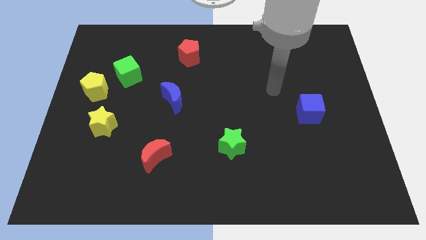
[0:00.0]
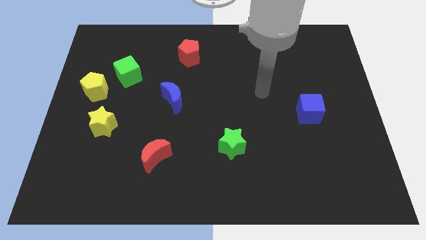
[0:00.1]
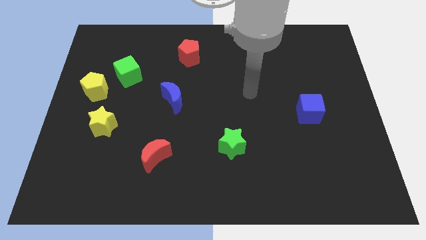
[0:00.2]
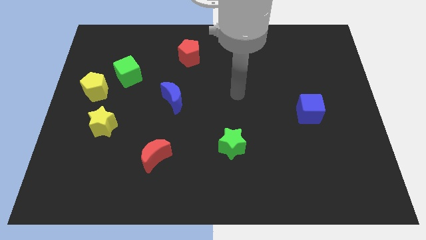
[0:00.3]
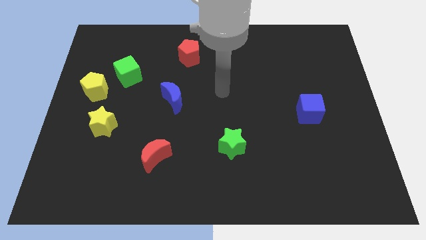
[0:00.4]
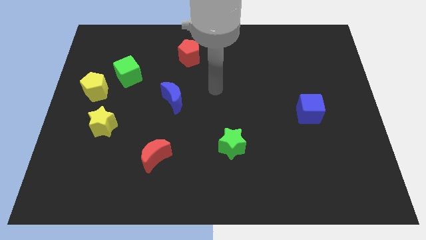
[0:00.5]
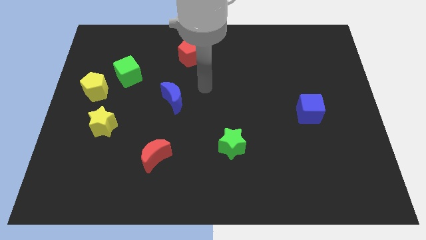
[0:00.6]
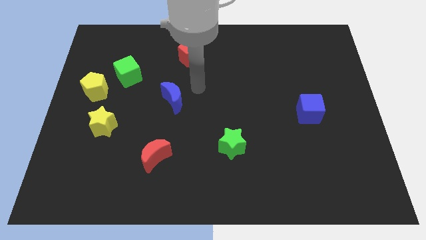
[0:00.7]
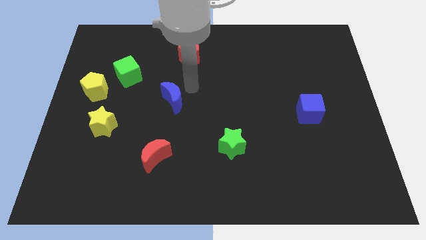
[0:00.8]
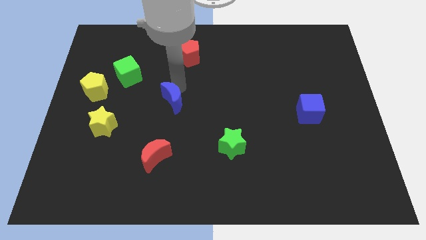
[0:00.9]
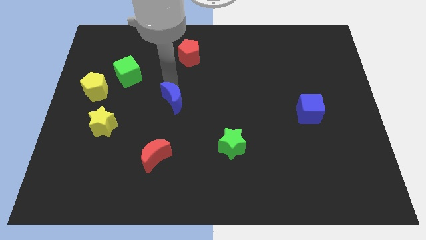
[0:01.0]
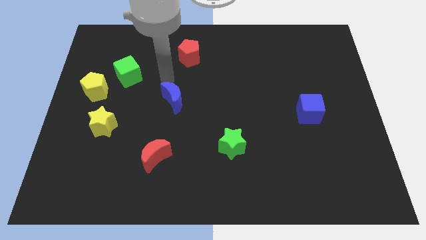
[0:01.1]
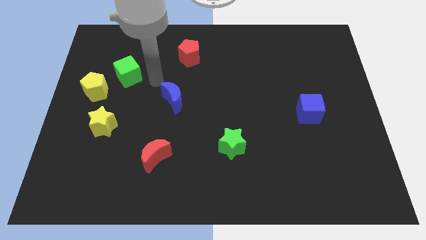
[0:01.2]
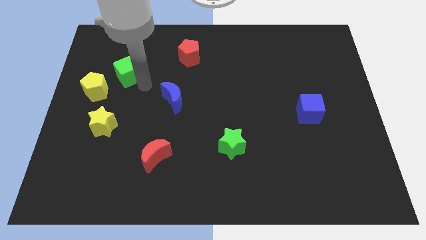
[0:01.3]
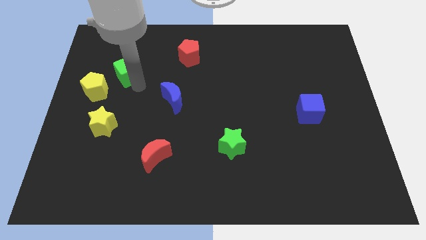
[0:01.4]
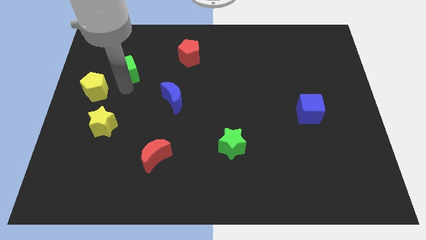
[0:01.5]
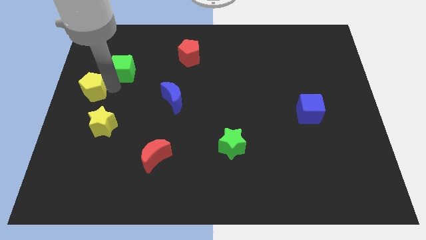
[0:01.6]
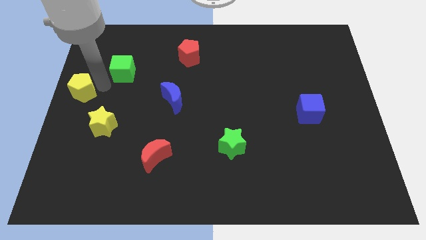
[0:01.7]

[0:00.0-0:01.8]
separate the green cube from the yellow pentagon

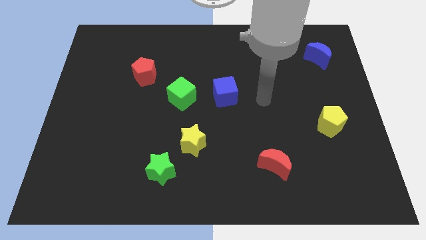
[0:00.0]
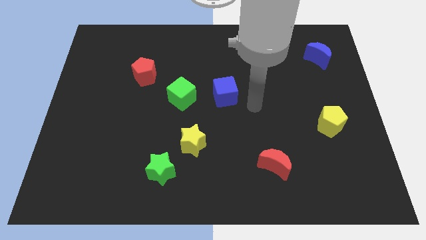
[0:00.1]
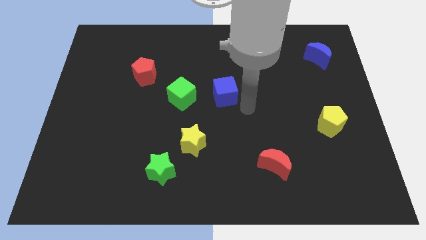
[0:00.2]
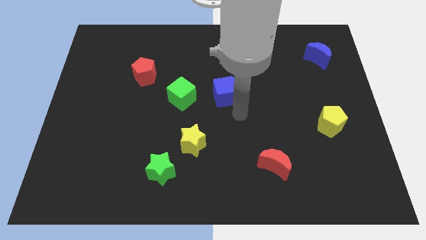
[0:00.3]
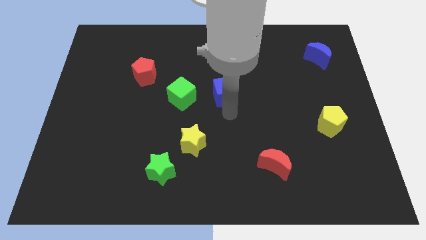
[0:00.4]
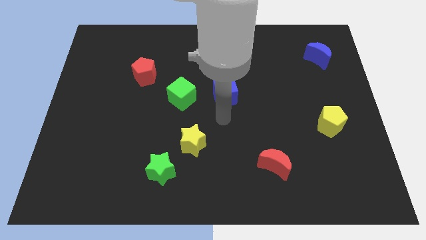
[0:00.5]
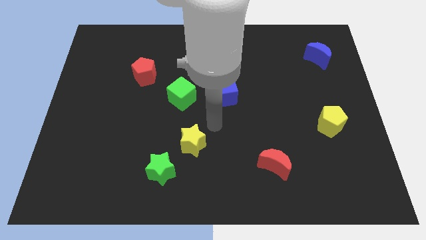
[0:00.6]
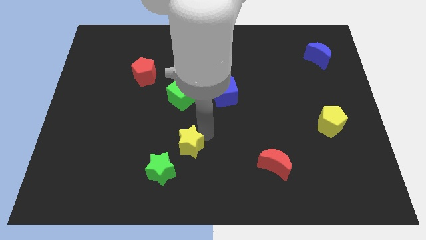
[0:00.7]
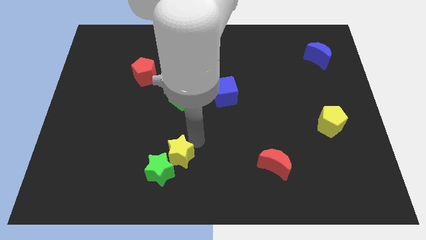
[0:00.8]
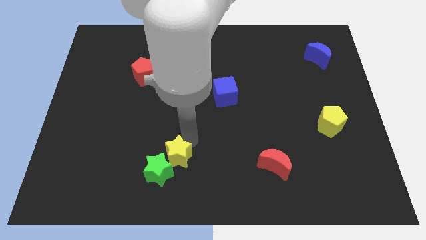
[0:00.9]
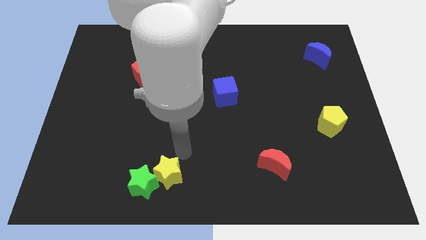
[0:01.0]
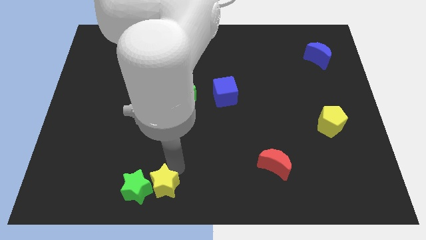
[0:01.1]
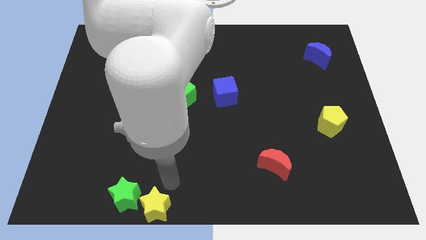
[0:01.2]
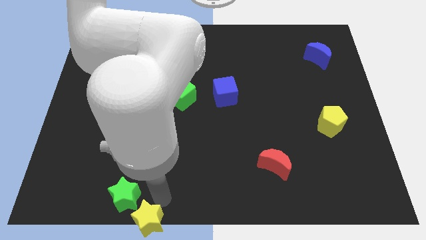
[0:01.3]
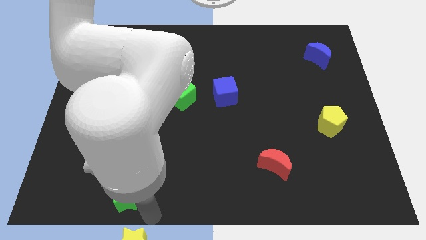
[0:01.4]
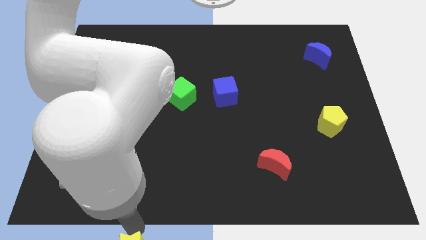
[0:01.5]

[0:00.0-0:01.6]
pull the green star apart from the yellow star

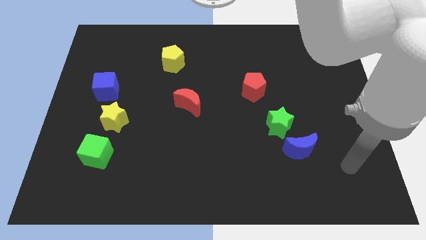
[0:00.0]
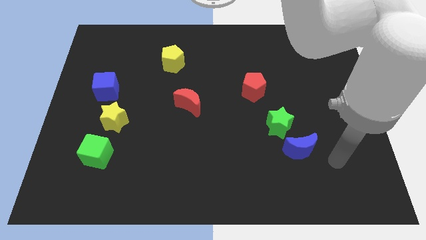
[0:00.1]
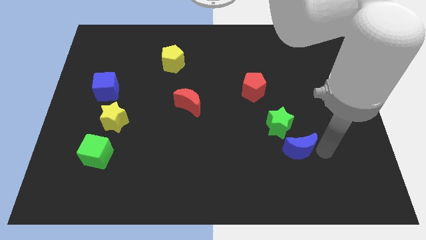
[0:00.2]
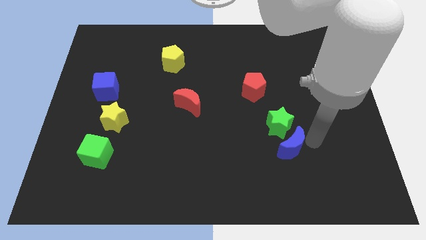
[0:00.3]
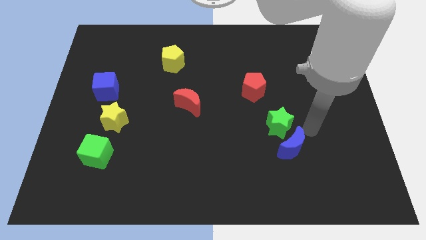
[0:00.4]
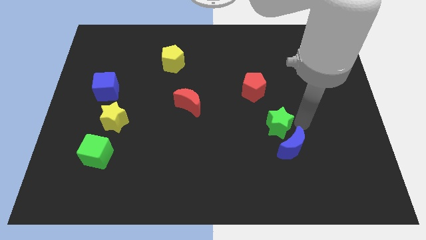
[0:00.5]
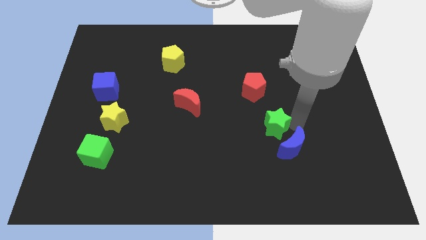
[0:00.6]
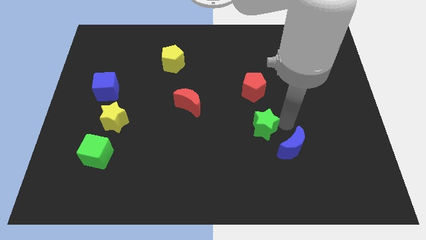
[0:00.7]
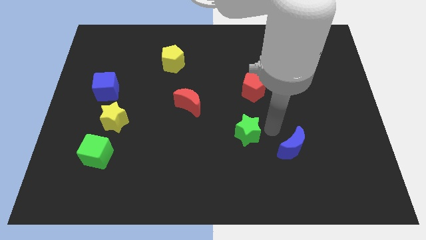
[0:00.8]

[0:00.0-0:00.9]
move the blue moon away from the green star

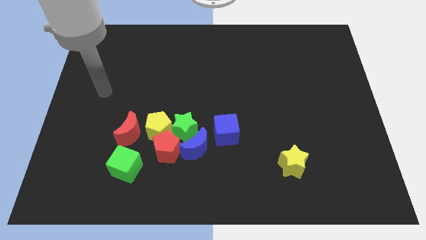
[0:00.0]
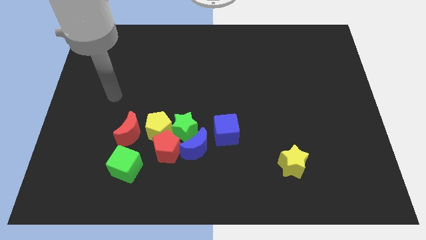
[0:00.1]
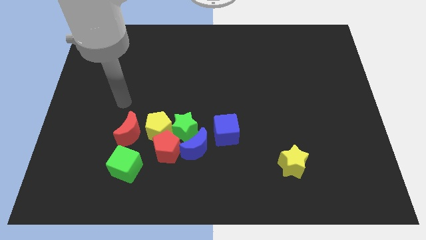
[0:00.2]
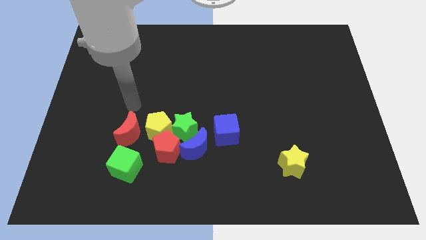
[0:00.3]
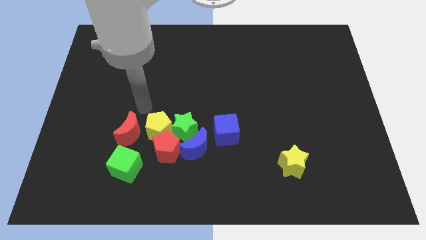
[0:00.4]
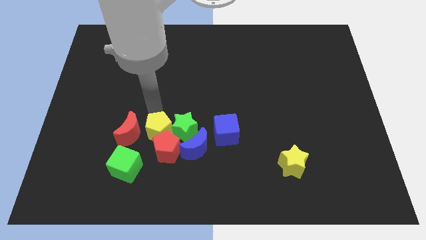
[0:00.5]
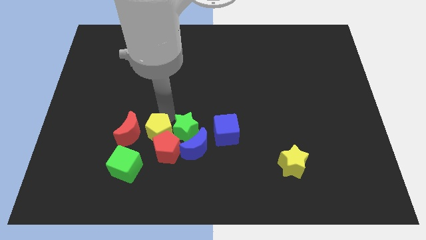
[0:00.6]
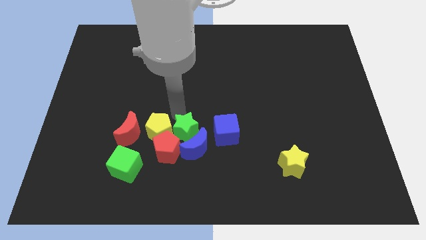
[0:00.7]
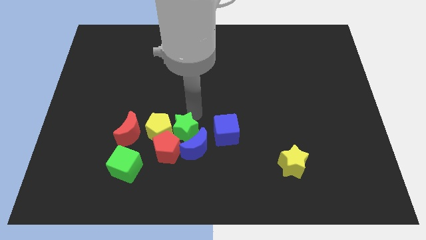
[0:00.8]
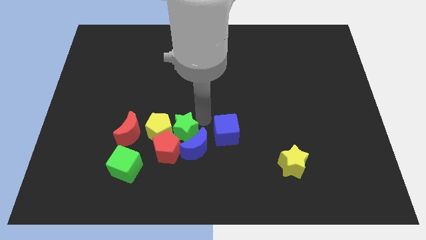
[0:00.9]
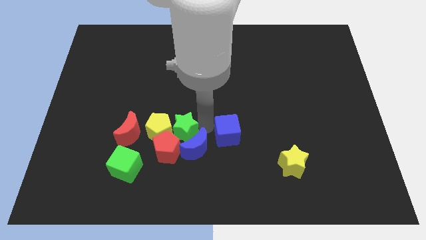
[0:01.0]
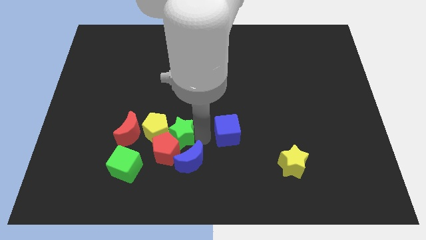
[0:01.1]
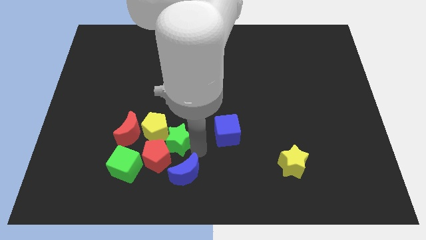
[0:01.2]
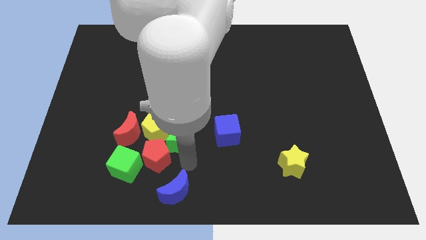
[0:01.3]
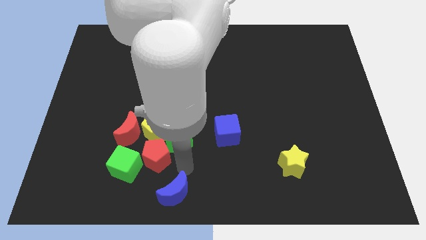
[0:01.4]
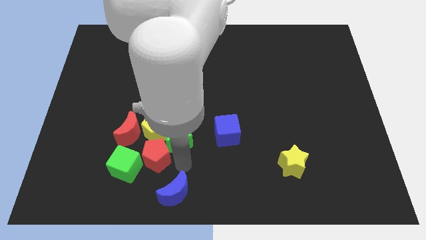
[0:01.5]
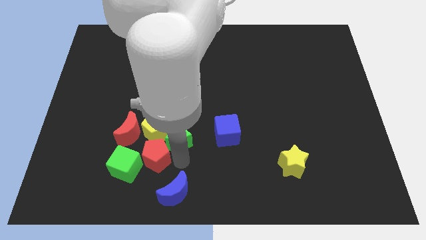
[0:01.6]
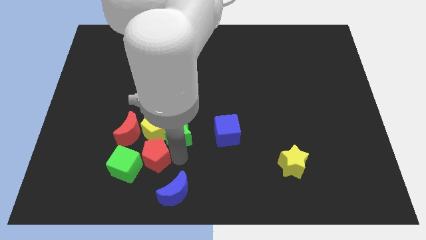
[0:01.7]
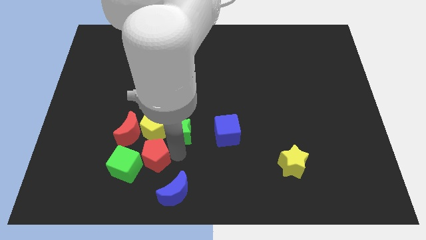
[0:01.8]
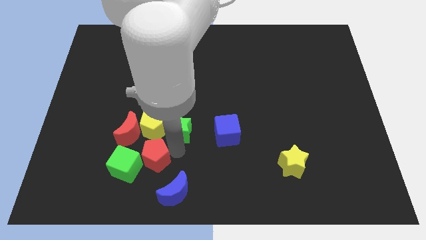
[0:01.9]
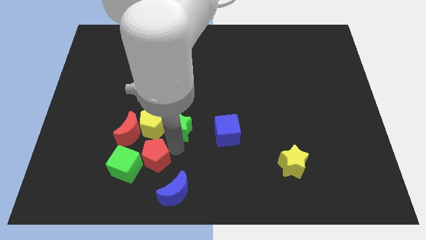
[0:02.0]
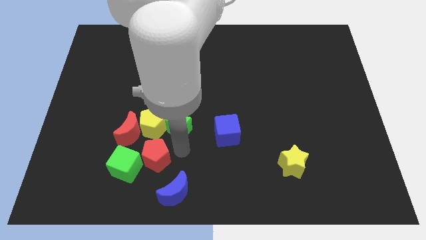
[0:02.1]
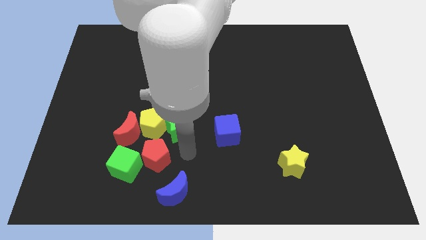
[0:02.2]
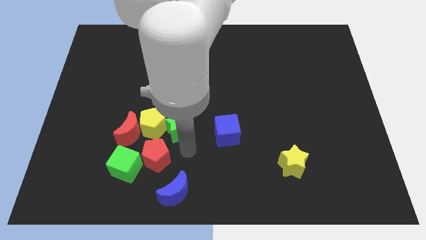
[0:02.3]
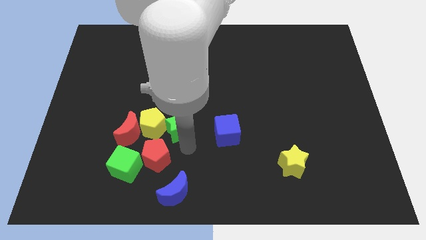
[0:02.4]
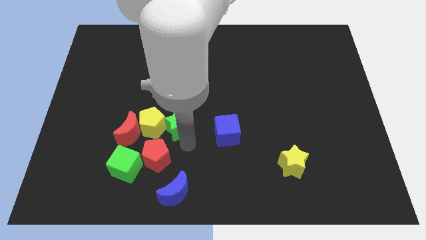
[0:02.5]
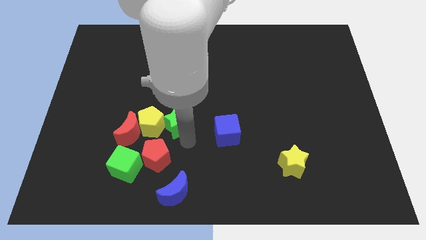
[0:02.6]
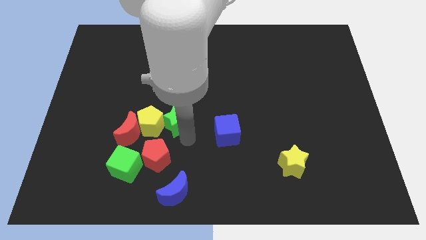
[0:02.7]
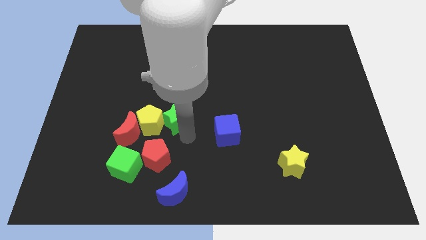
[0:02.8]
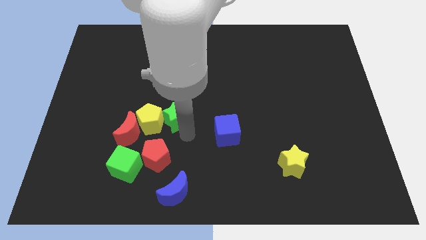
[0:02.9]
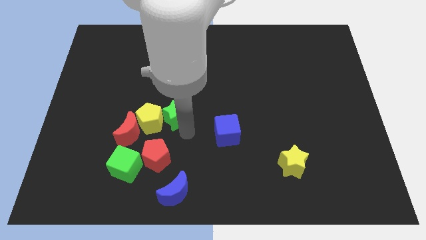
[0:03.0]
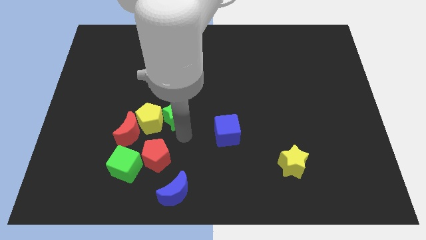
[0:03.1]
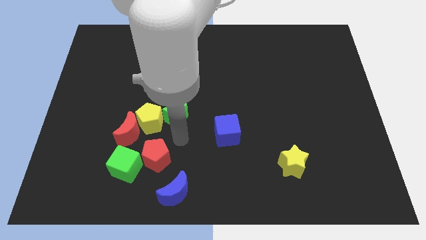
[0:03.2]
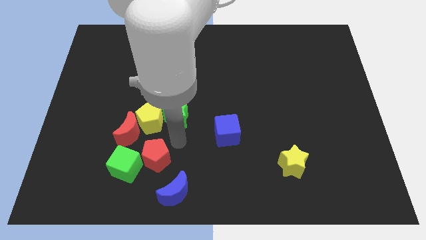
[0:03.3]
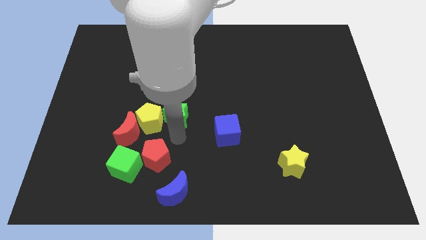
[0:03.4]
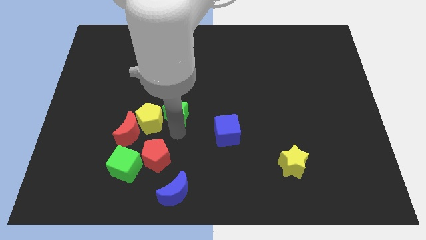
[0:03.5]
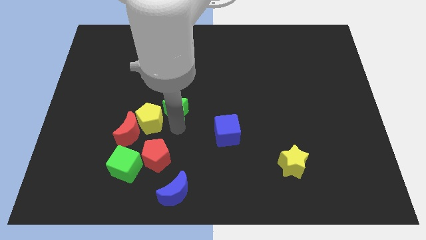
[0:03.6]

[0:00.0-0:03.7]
separate the green star from the group of blocks

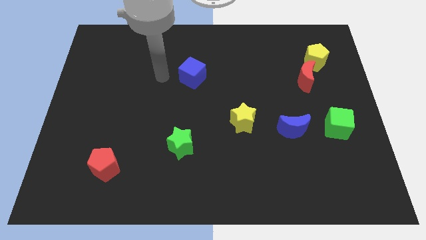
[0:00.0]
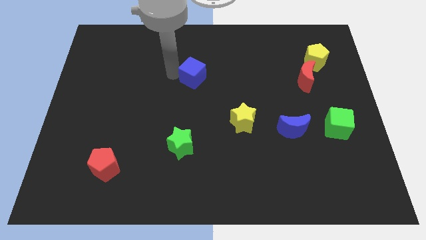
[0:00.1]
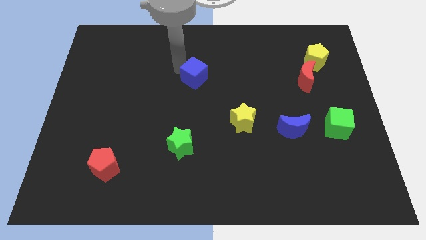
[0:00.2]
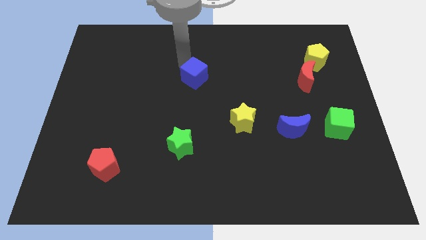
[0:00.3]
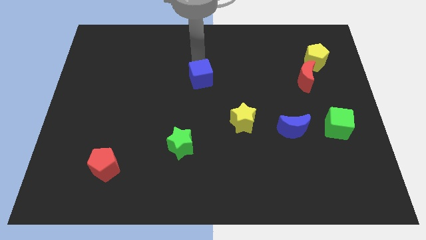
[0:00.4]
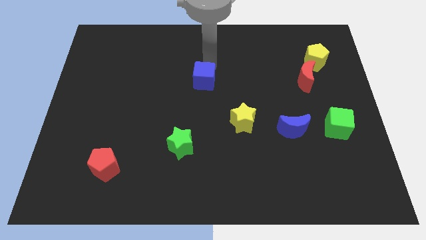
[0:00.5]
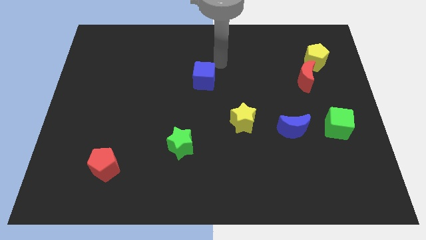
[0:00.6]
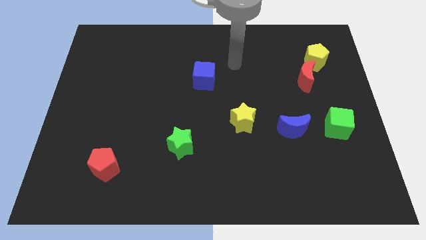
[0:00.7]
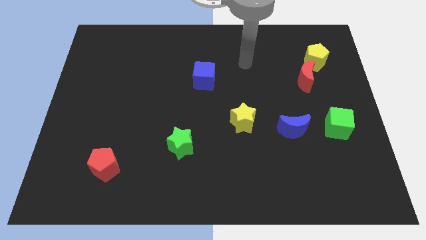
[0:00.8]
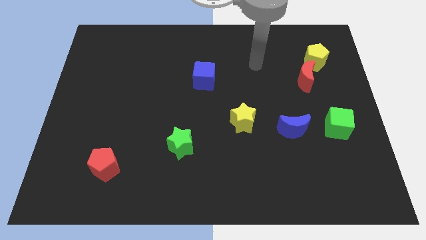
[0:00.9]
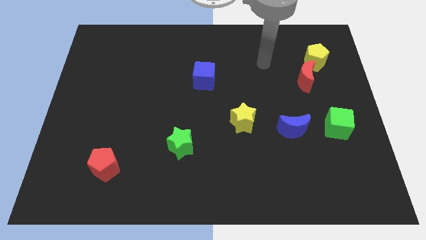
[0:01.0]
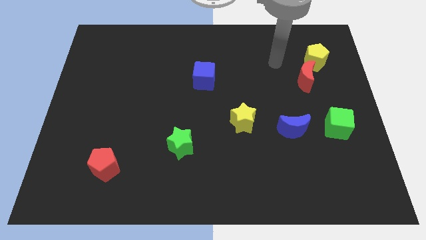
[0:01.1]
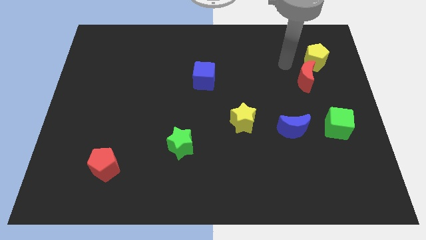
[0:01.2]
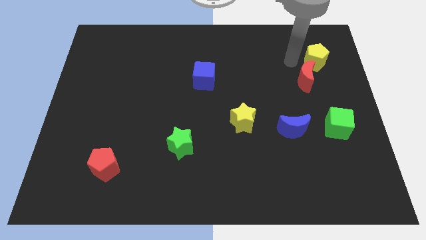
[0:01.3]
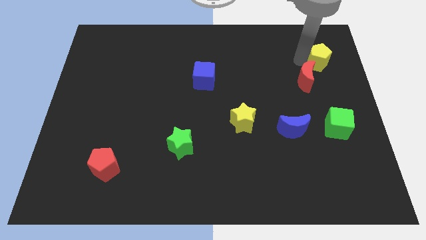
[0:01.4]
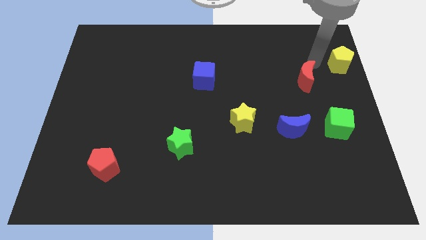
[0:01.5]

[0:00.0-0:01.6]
separate the red moon from the yellow pentagon
